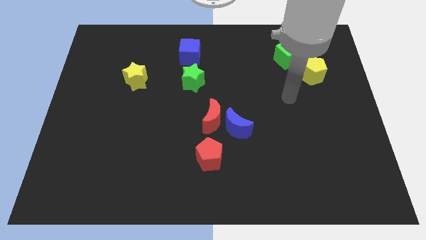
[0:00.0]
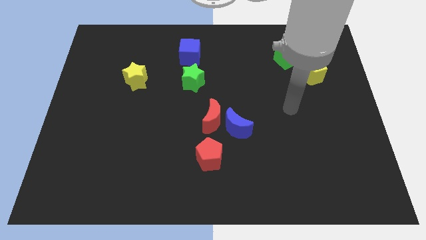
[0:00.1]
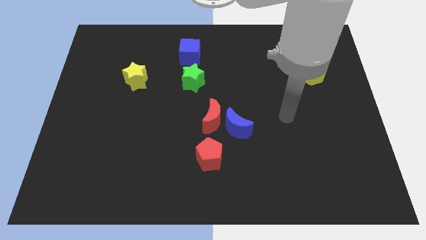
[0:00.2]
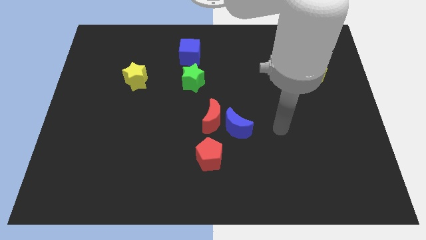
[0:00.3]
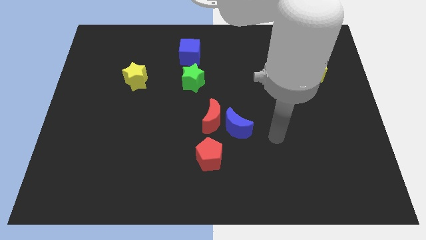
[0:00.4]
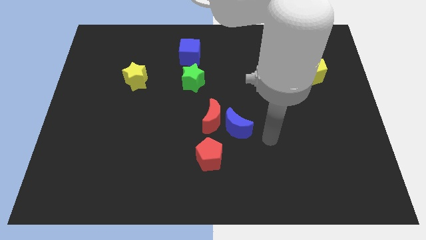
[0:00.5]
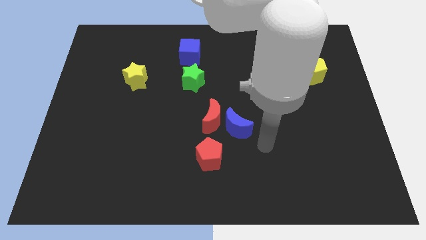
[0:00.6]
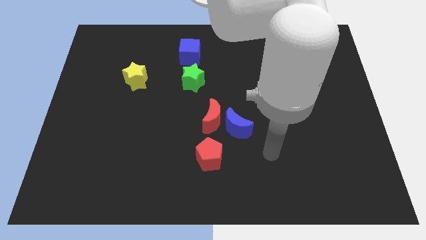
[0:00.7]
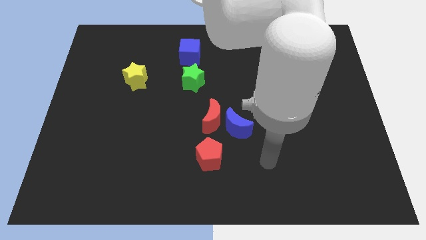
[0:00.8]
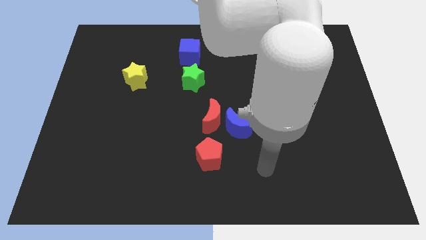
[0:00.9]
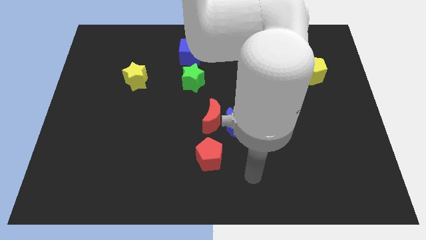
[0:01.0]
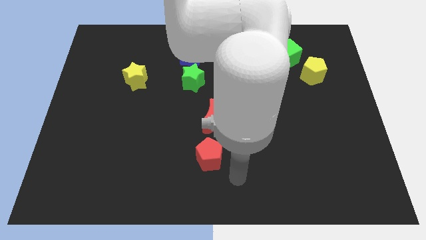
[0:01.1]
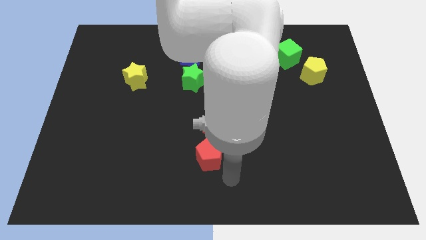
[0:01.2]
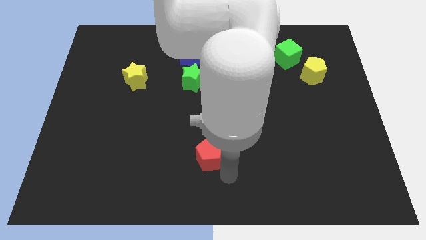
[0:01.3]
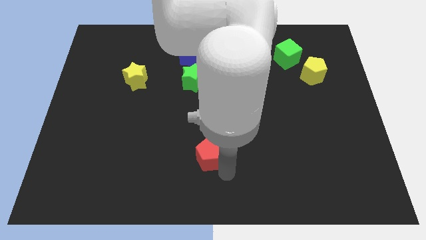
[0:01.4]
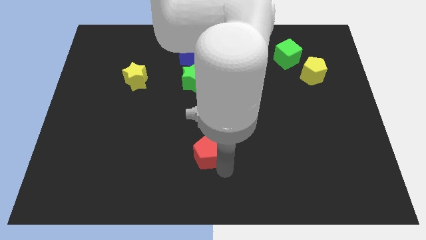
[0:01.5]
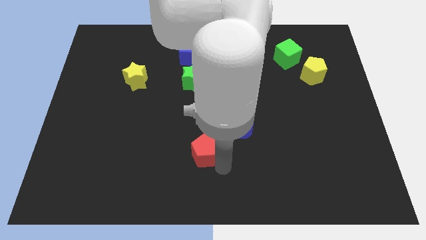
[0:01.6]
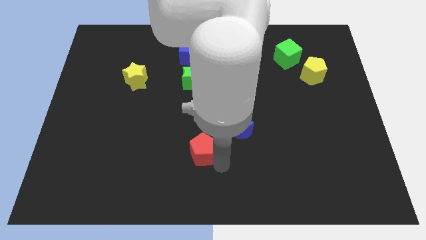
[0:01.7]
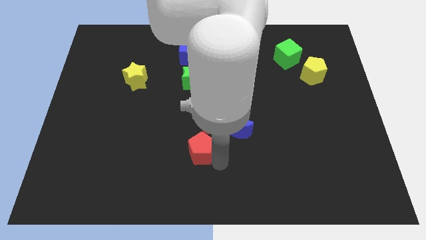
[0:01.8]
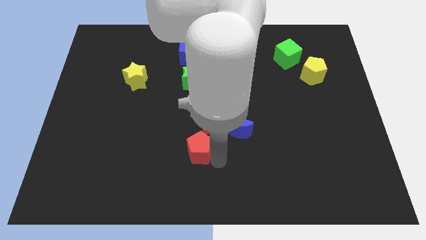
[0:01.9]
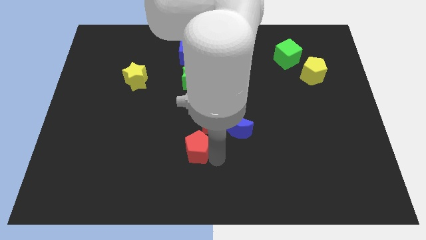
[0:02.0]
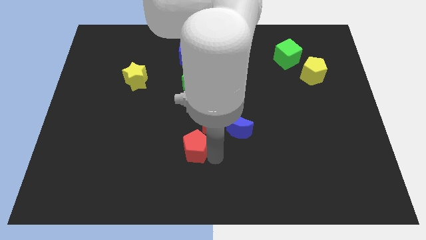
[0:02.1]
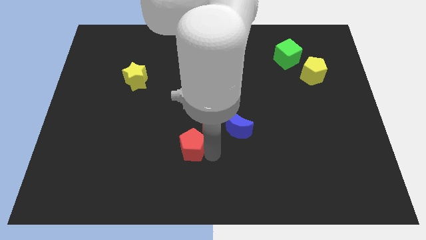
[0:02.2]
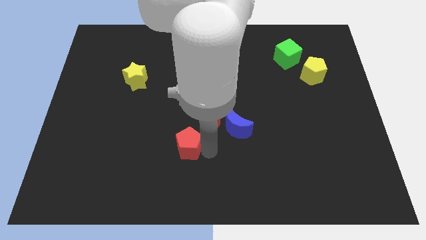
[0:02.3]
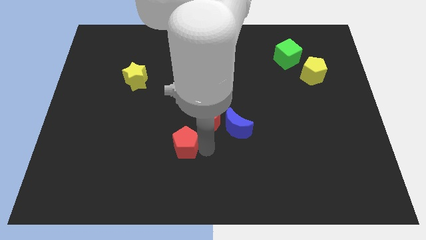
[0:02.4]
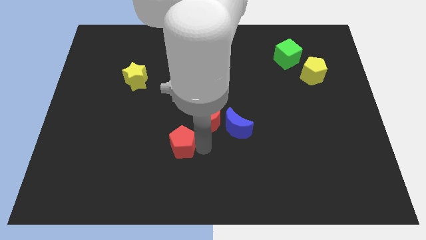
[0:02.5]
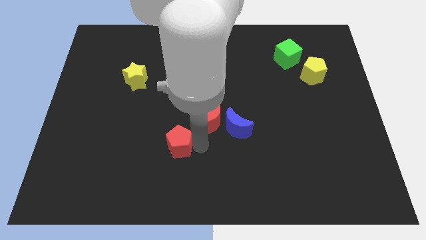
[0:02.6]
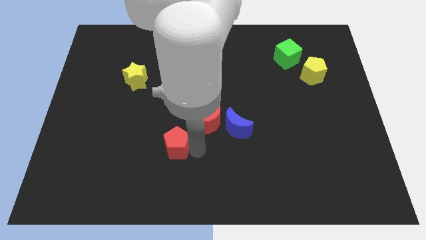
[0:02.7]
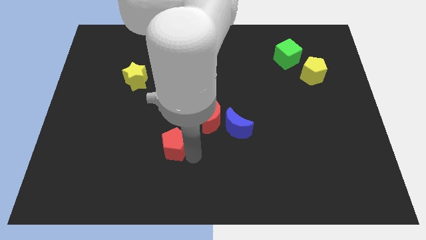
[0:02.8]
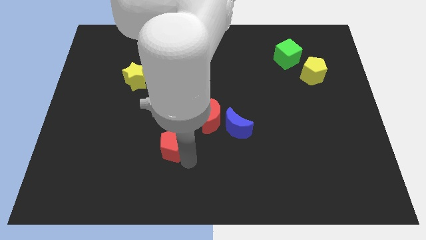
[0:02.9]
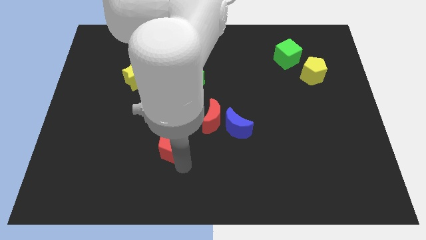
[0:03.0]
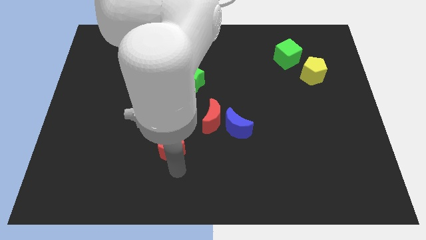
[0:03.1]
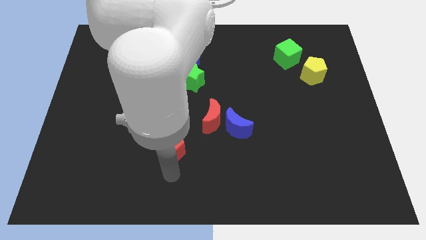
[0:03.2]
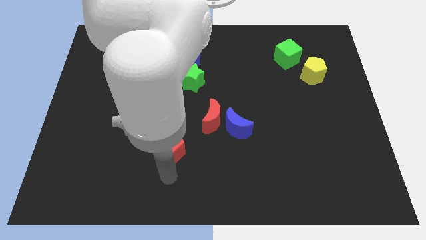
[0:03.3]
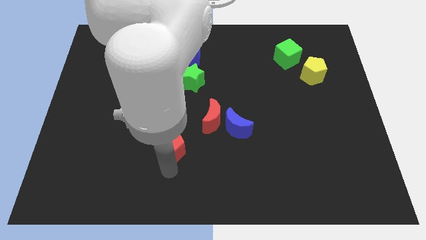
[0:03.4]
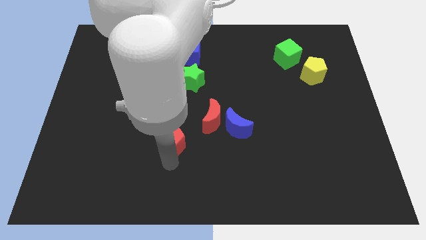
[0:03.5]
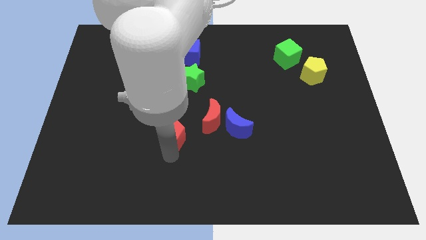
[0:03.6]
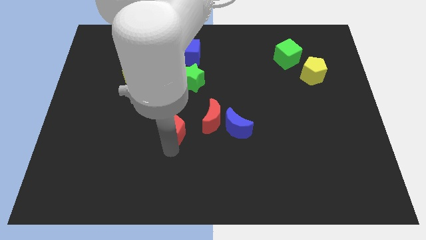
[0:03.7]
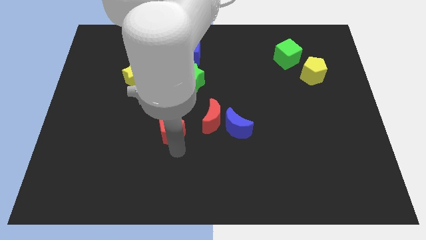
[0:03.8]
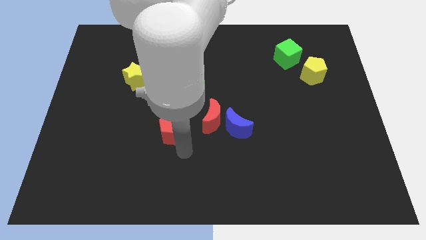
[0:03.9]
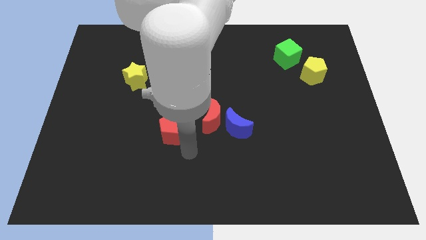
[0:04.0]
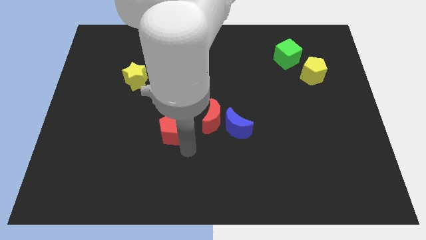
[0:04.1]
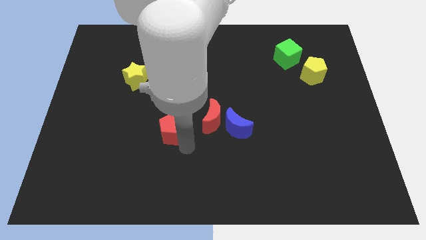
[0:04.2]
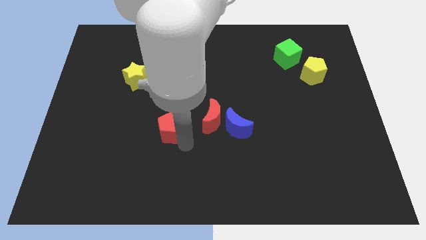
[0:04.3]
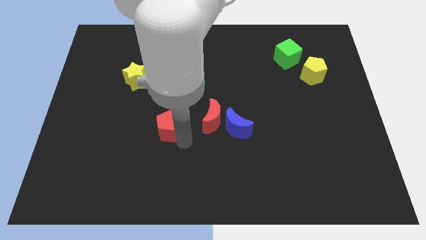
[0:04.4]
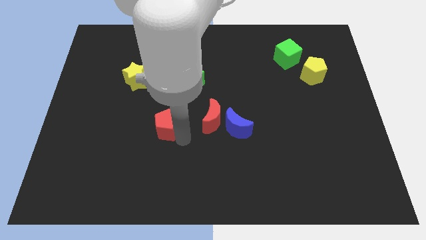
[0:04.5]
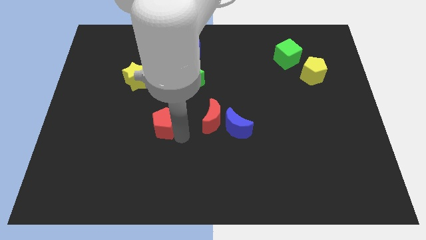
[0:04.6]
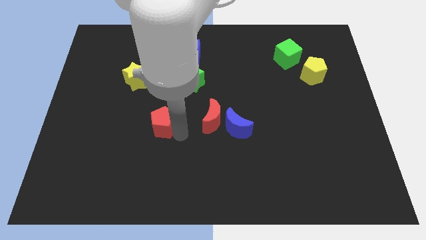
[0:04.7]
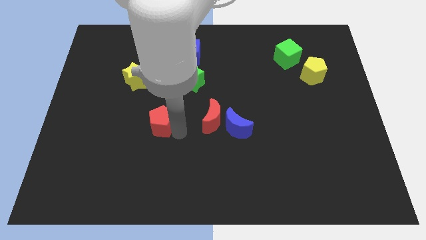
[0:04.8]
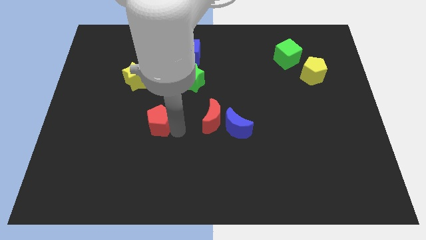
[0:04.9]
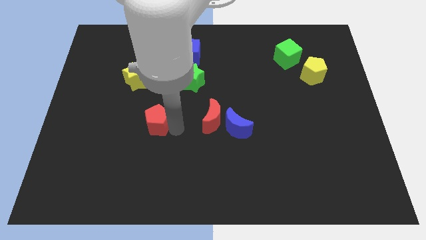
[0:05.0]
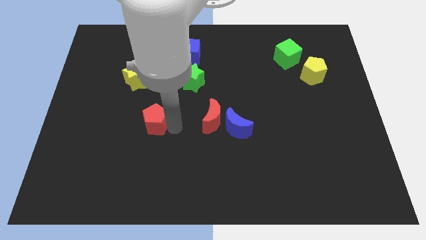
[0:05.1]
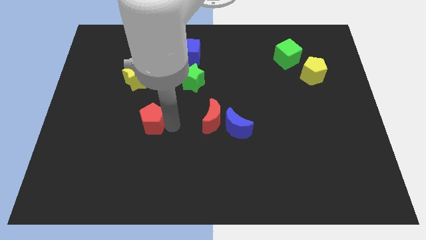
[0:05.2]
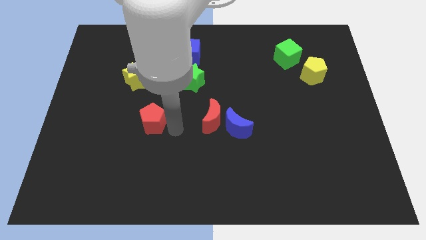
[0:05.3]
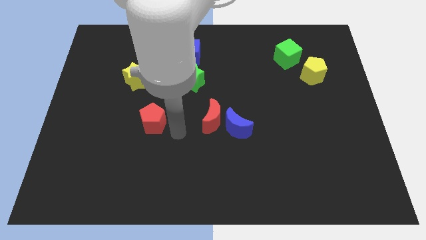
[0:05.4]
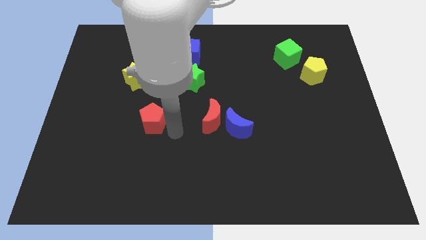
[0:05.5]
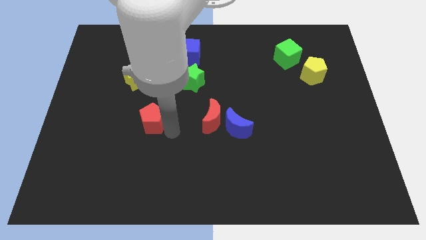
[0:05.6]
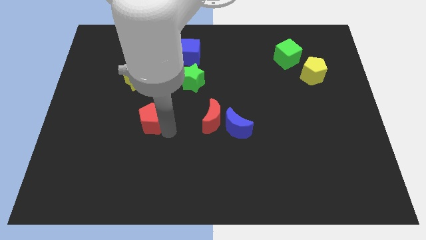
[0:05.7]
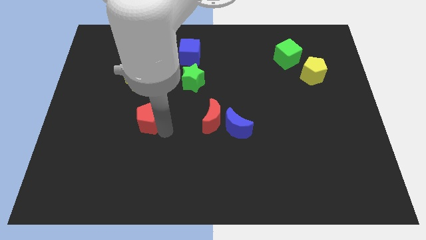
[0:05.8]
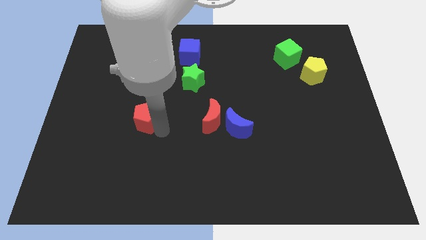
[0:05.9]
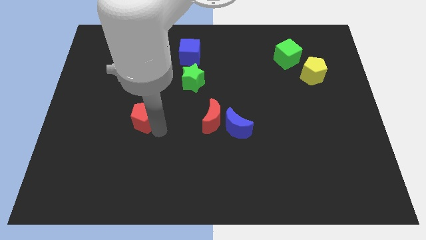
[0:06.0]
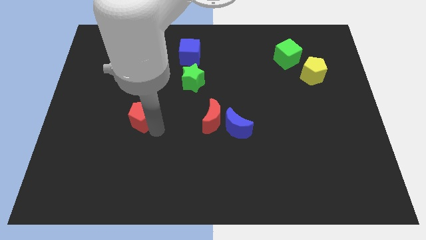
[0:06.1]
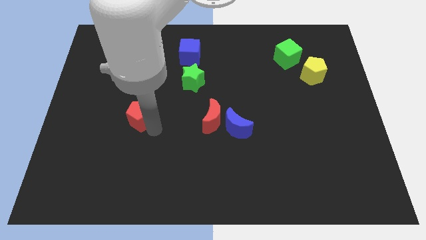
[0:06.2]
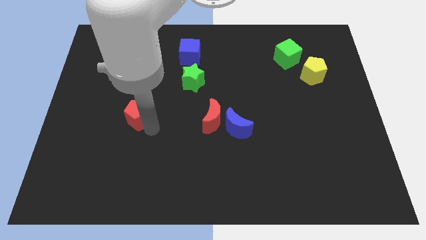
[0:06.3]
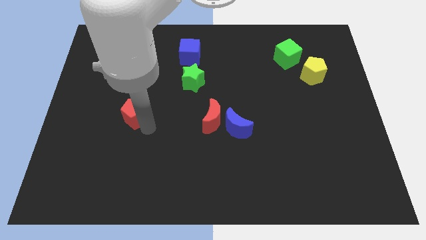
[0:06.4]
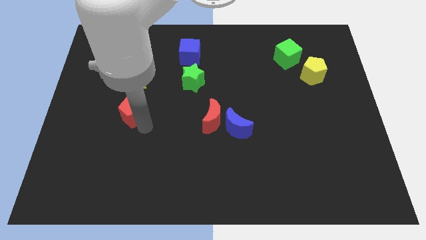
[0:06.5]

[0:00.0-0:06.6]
slide the red pentagon up and left

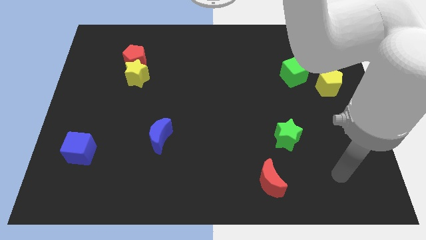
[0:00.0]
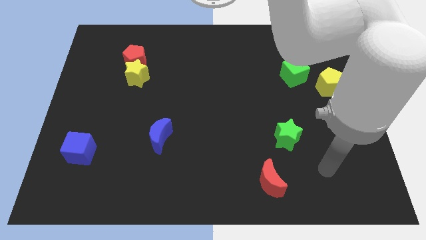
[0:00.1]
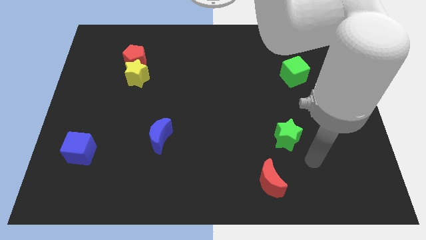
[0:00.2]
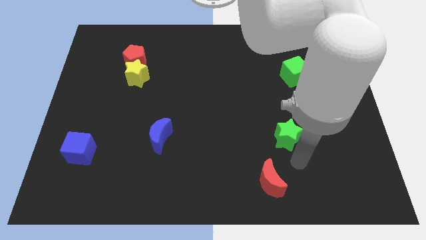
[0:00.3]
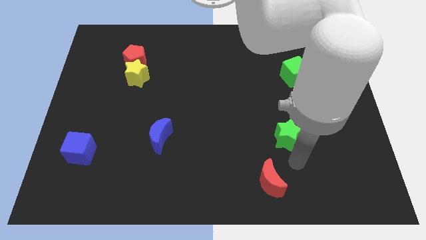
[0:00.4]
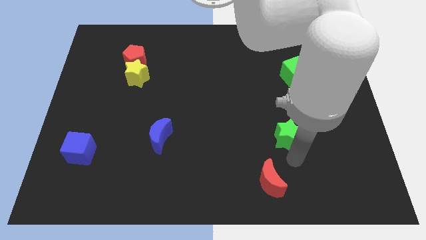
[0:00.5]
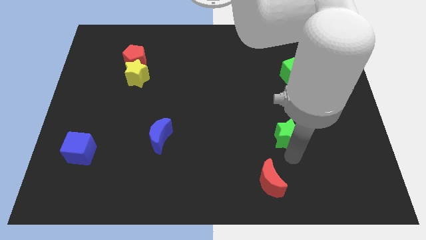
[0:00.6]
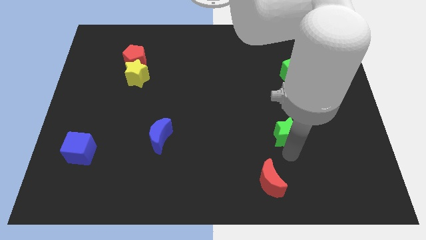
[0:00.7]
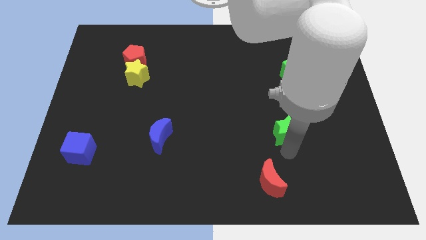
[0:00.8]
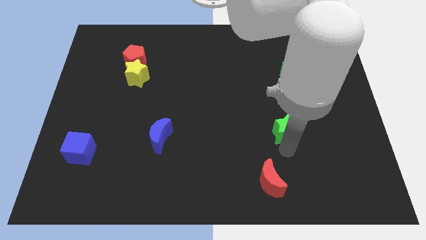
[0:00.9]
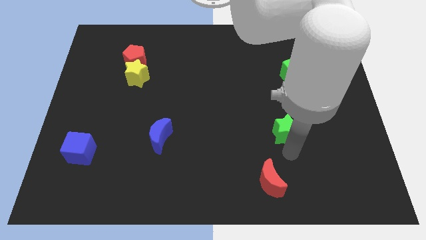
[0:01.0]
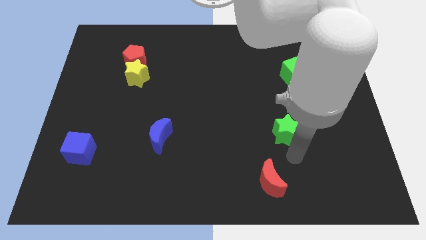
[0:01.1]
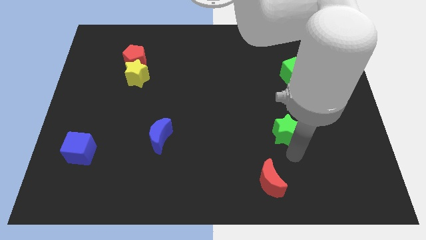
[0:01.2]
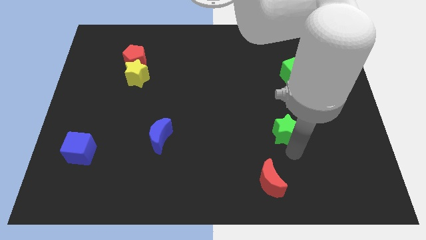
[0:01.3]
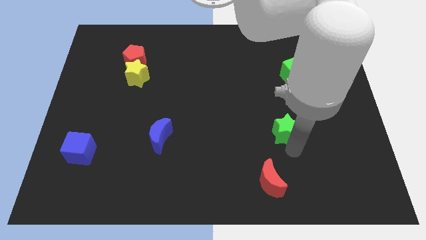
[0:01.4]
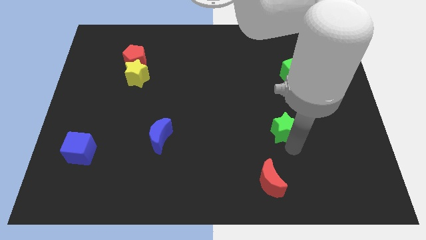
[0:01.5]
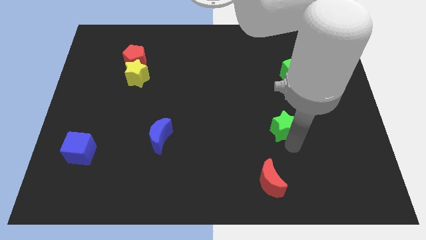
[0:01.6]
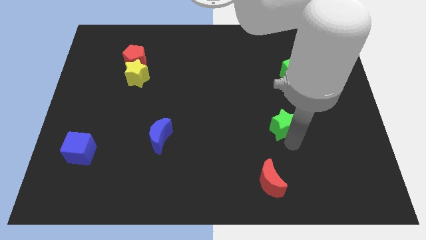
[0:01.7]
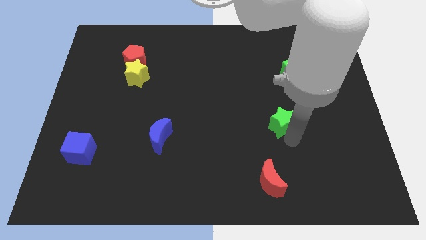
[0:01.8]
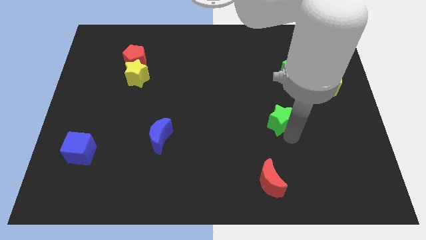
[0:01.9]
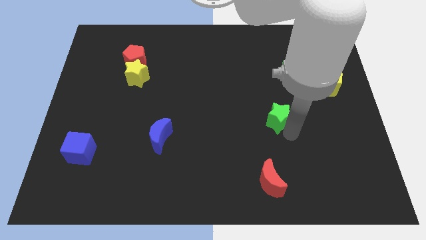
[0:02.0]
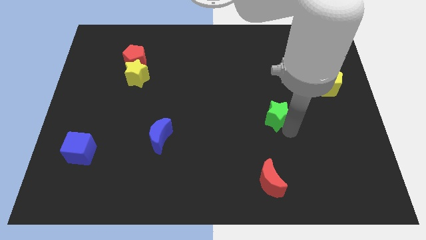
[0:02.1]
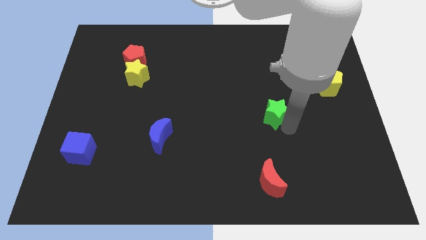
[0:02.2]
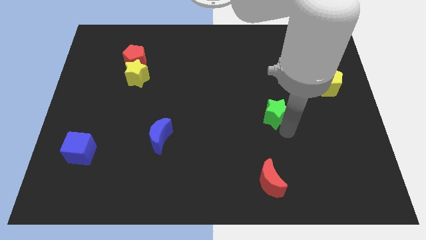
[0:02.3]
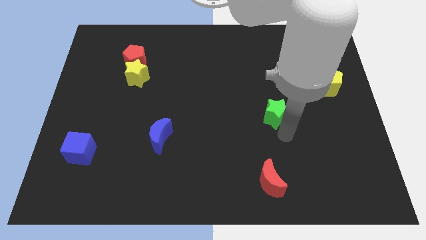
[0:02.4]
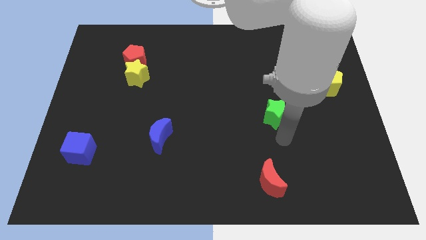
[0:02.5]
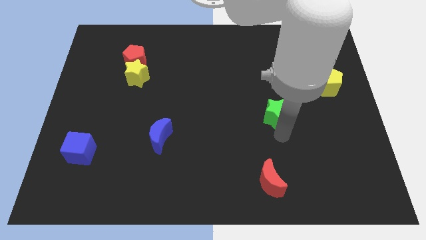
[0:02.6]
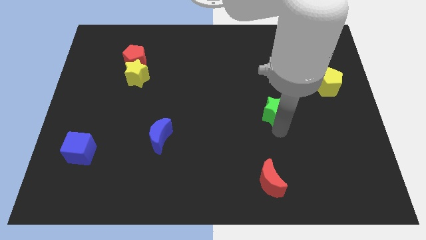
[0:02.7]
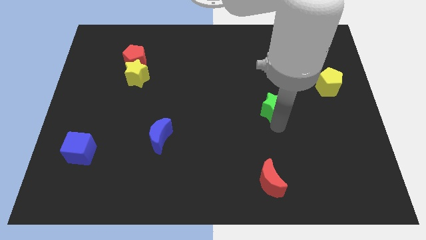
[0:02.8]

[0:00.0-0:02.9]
push the green star up slightly
